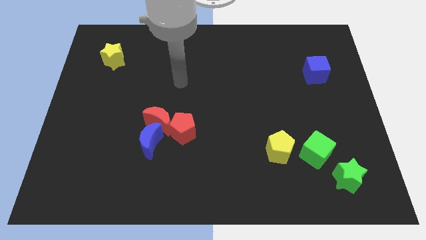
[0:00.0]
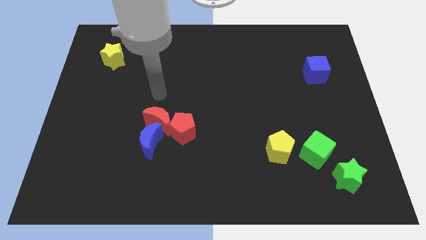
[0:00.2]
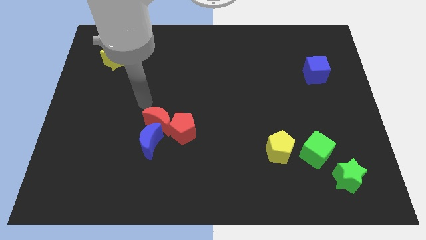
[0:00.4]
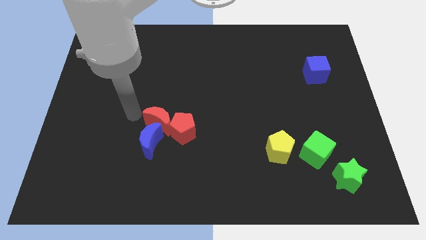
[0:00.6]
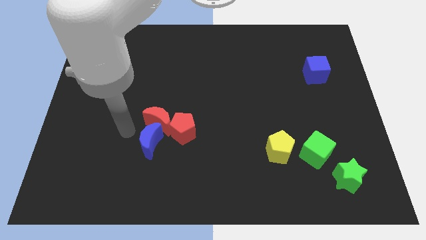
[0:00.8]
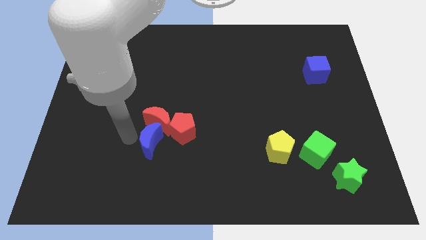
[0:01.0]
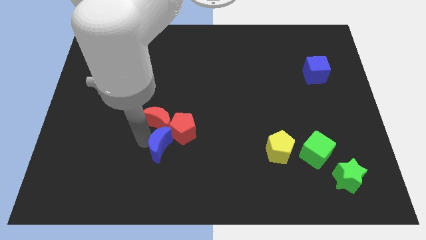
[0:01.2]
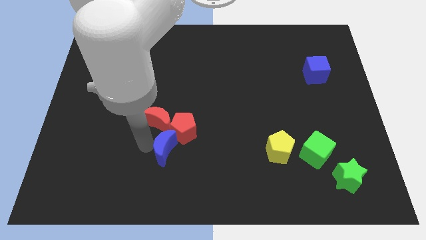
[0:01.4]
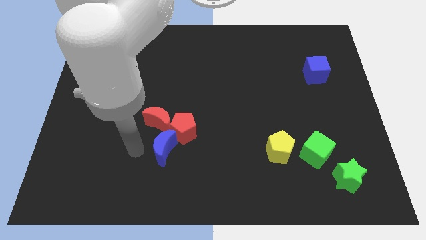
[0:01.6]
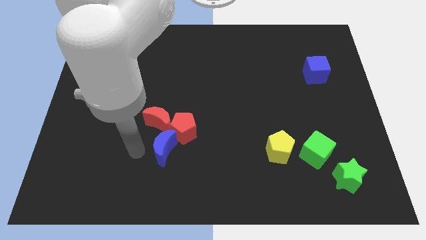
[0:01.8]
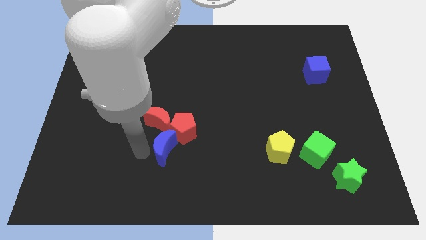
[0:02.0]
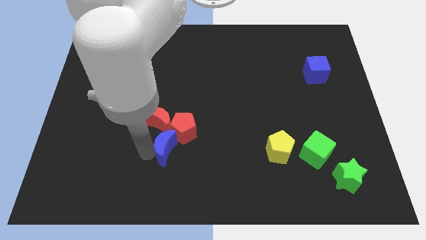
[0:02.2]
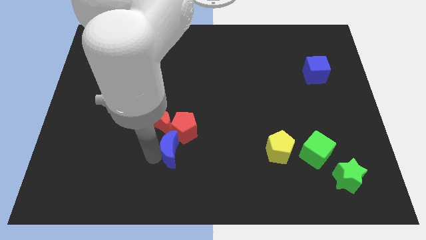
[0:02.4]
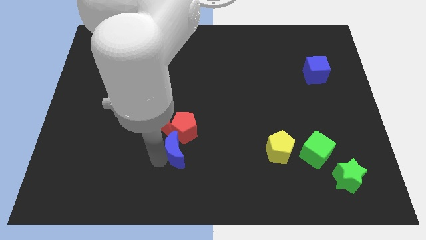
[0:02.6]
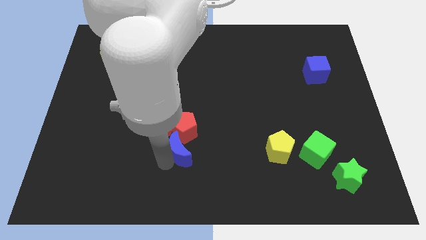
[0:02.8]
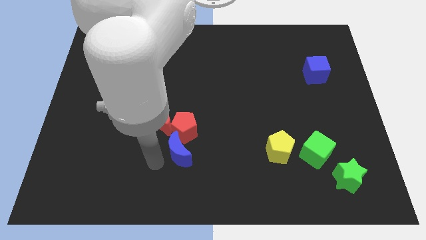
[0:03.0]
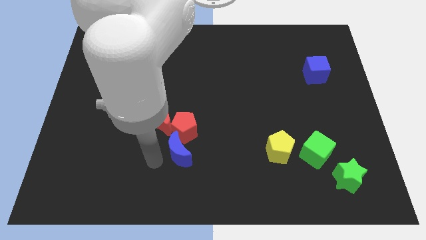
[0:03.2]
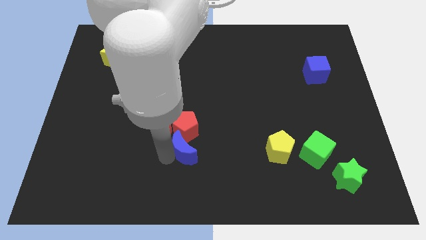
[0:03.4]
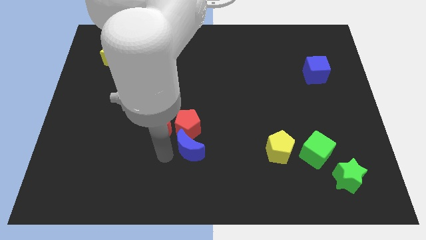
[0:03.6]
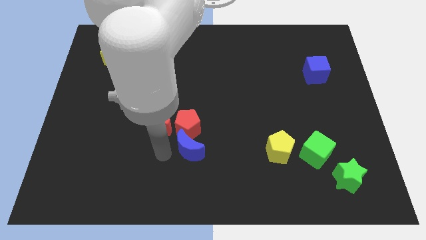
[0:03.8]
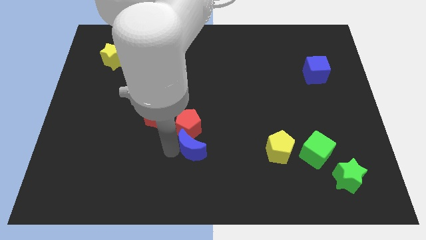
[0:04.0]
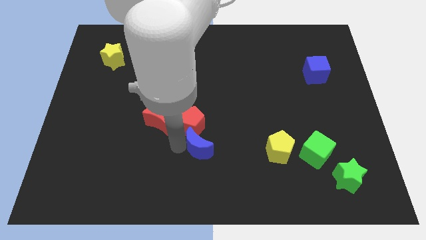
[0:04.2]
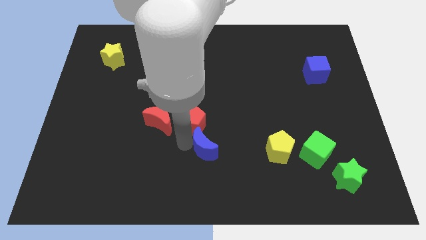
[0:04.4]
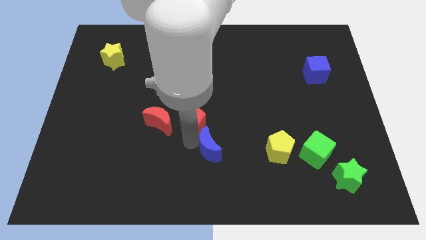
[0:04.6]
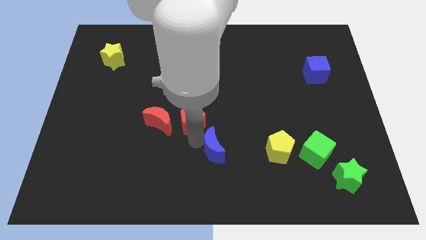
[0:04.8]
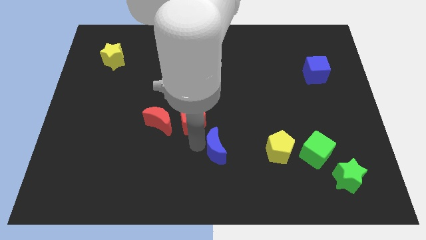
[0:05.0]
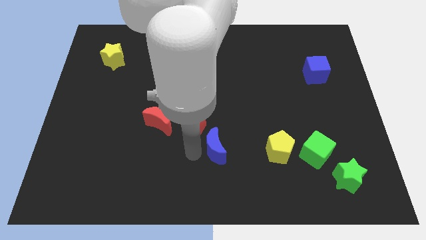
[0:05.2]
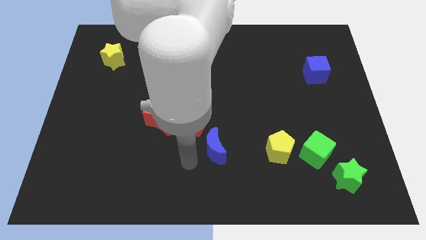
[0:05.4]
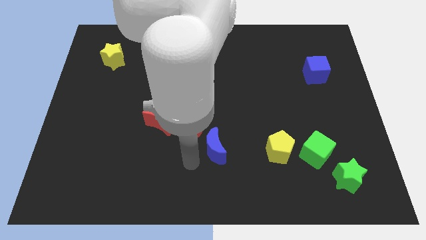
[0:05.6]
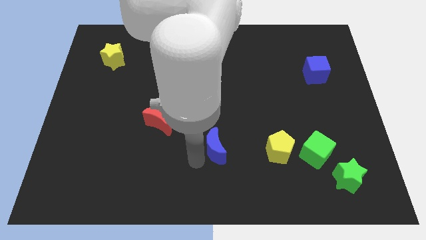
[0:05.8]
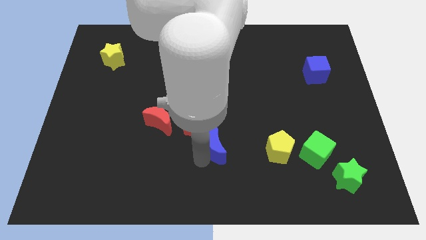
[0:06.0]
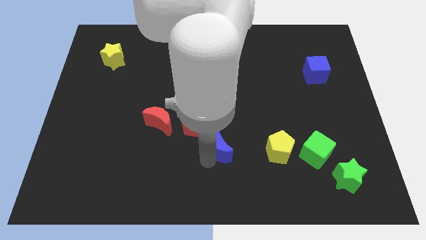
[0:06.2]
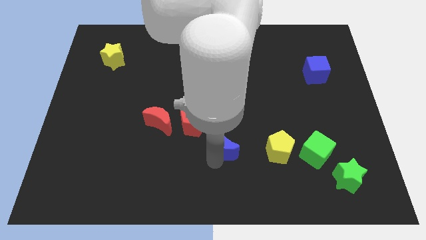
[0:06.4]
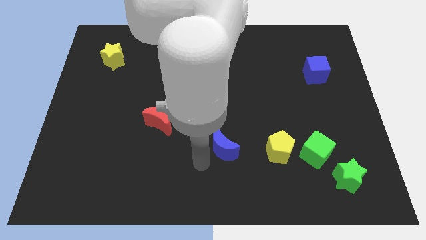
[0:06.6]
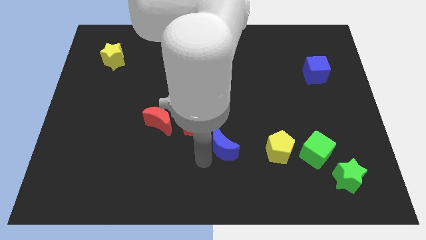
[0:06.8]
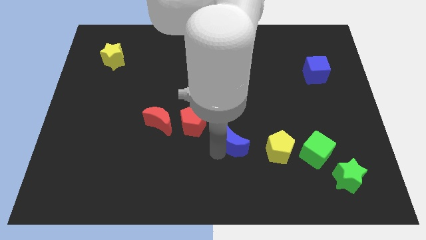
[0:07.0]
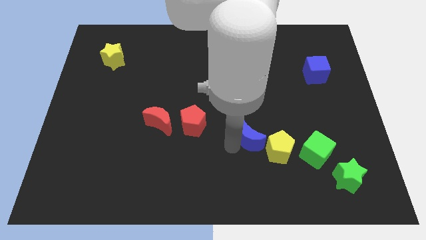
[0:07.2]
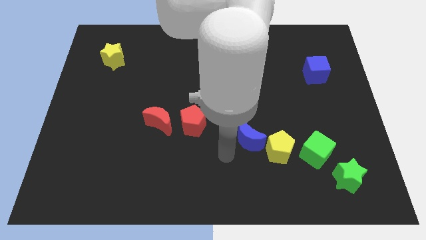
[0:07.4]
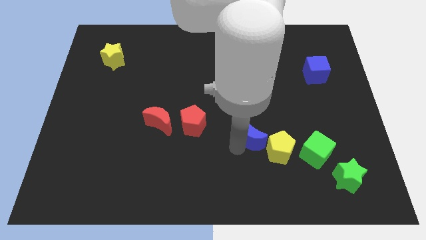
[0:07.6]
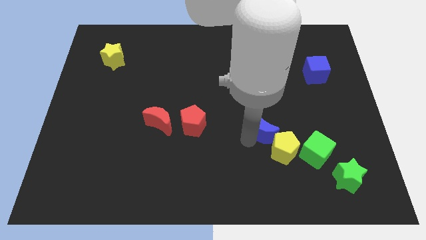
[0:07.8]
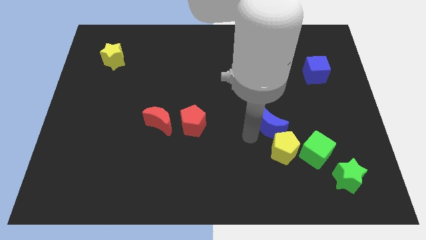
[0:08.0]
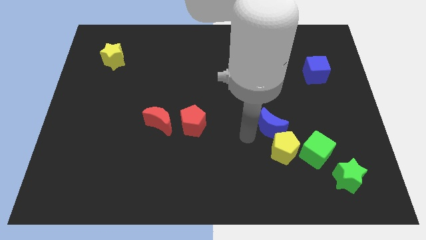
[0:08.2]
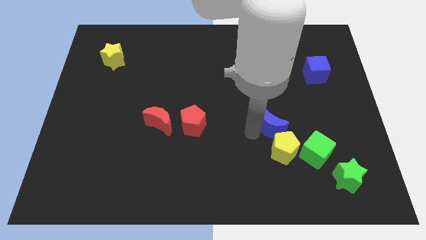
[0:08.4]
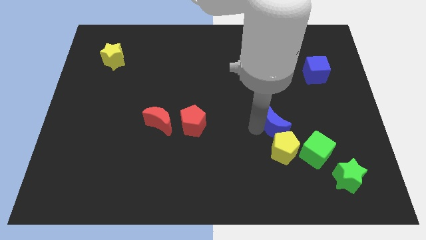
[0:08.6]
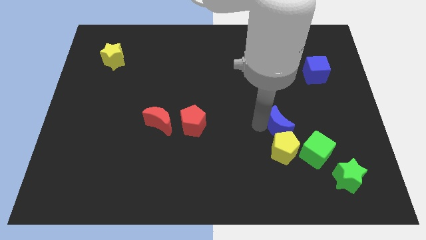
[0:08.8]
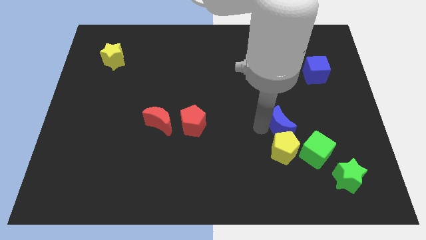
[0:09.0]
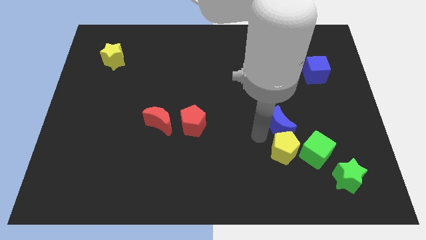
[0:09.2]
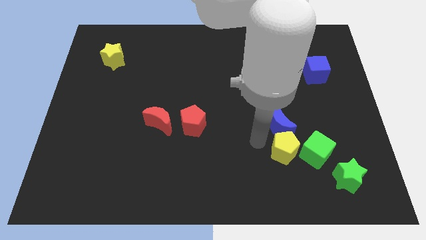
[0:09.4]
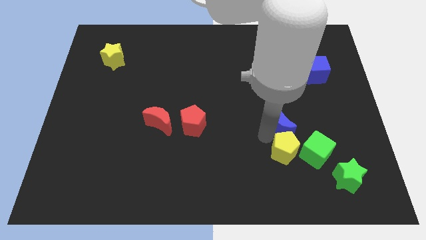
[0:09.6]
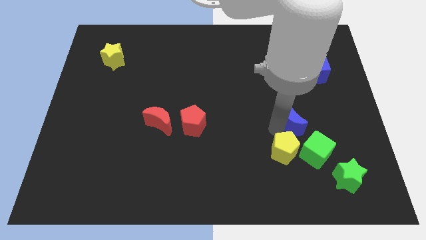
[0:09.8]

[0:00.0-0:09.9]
slide the blue moon to the top side of the green cube

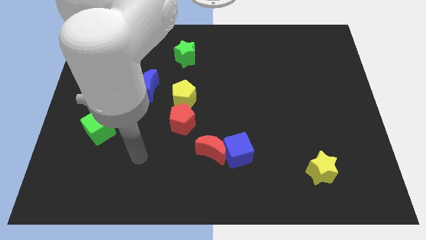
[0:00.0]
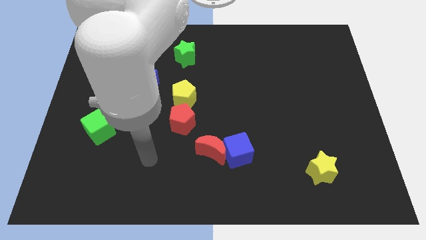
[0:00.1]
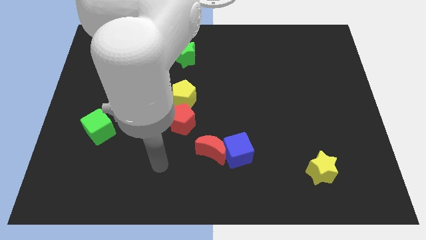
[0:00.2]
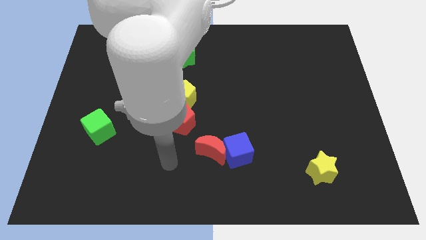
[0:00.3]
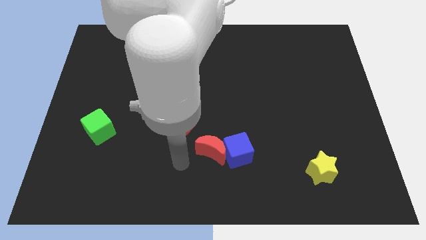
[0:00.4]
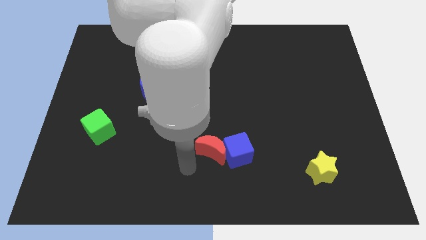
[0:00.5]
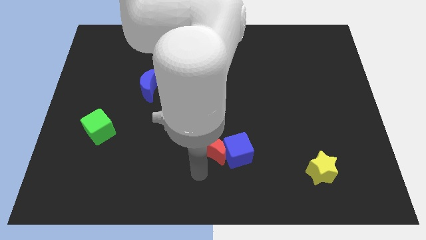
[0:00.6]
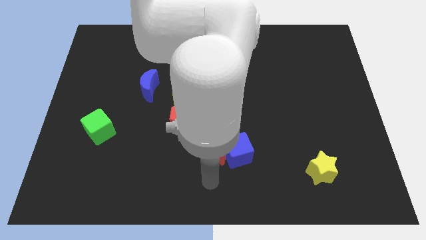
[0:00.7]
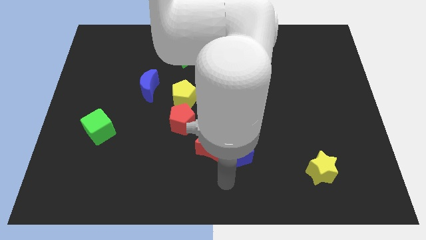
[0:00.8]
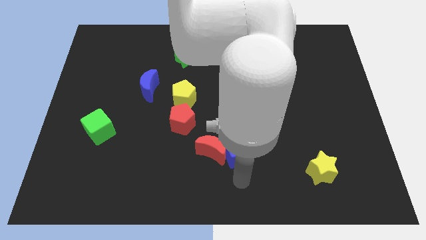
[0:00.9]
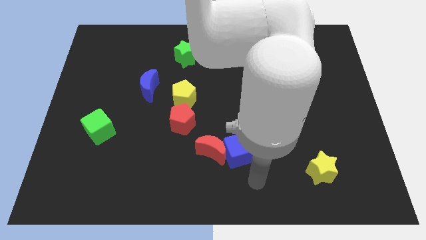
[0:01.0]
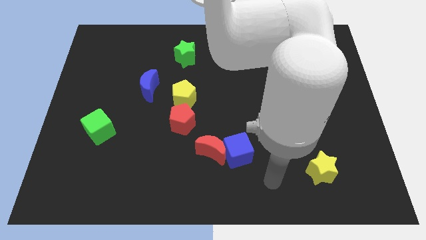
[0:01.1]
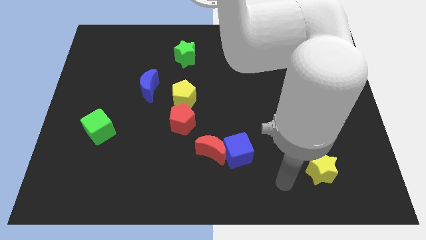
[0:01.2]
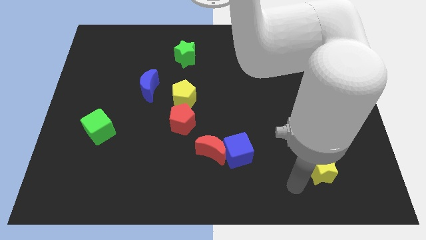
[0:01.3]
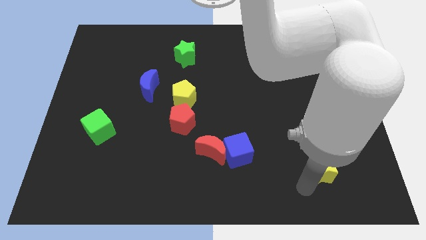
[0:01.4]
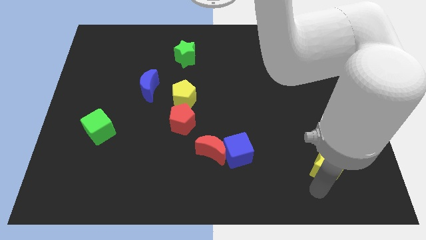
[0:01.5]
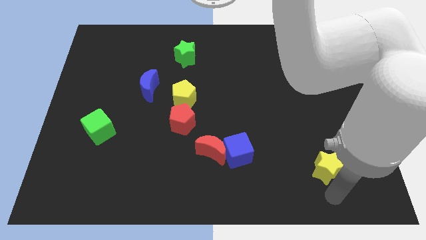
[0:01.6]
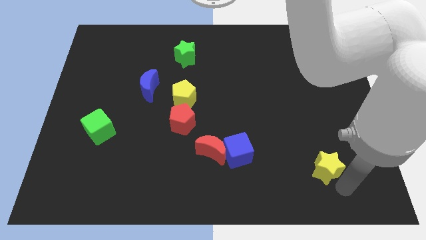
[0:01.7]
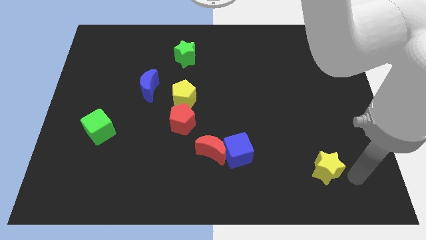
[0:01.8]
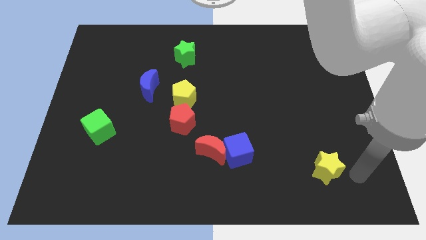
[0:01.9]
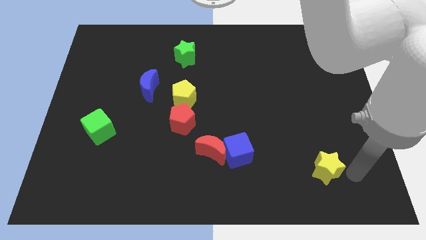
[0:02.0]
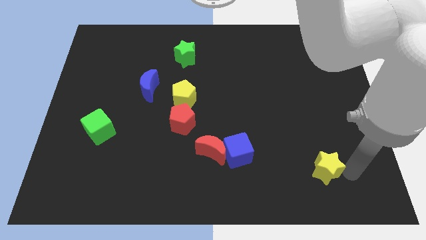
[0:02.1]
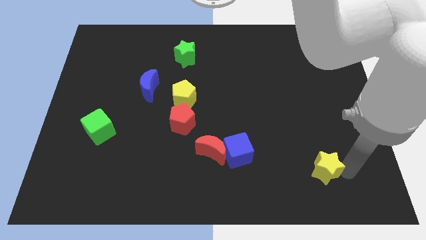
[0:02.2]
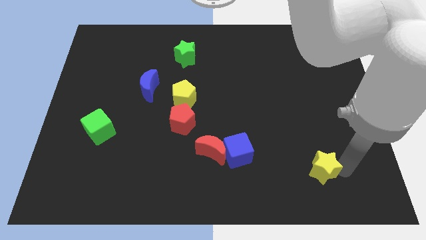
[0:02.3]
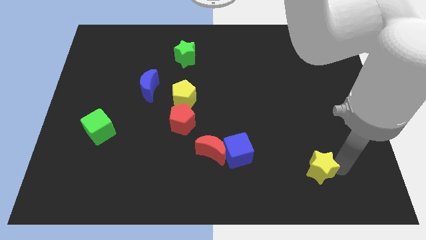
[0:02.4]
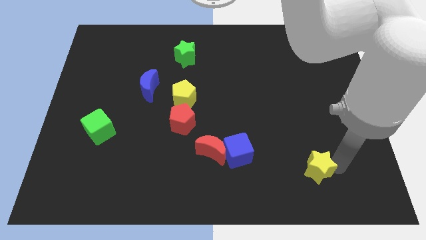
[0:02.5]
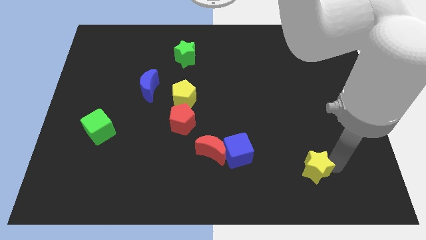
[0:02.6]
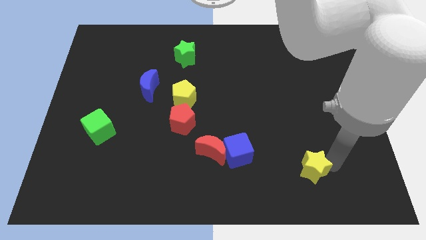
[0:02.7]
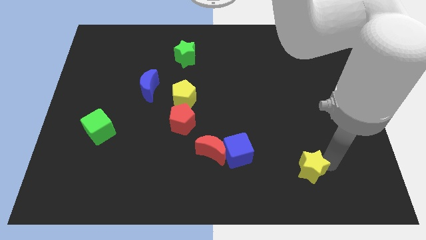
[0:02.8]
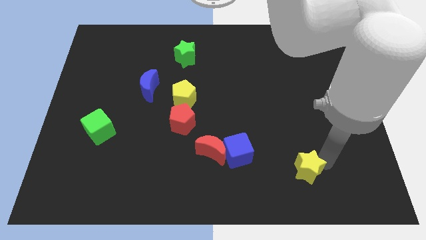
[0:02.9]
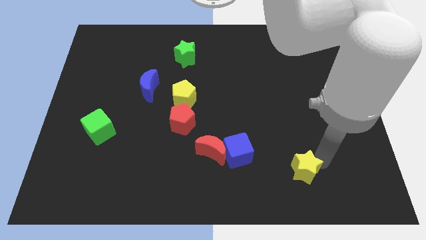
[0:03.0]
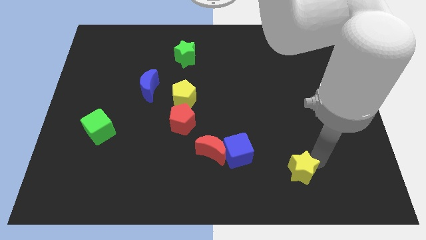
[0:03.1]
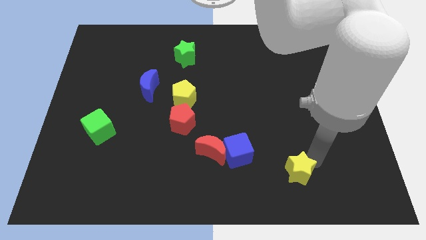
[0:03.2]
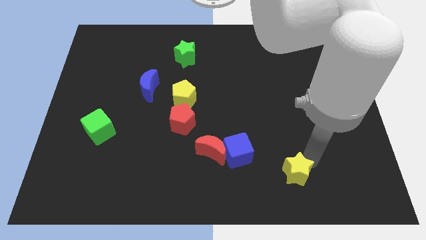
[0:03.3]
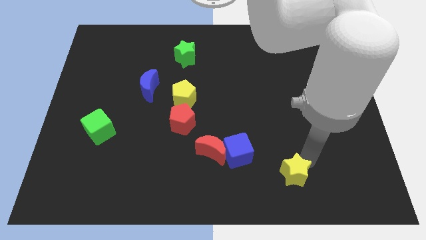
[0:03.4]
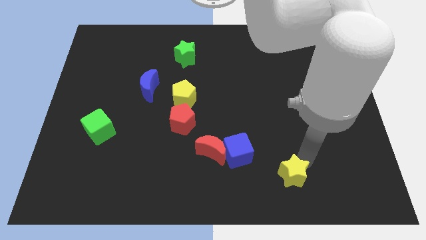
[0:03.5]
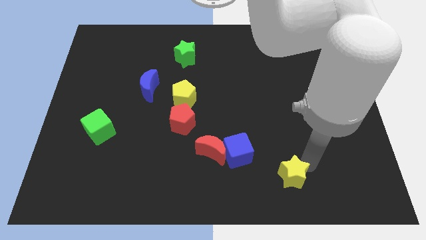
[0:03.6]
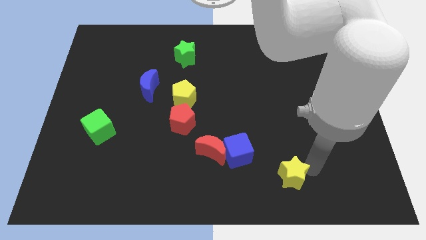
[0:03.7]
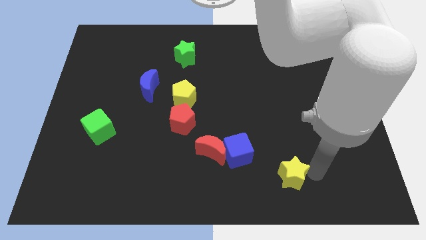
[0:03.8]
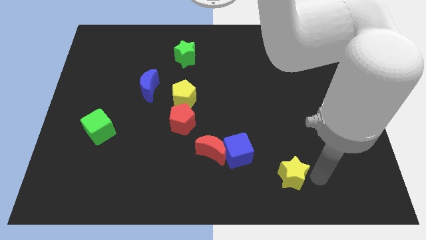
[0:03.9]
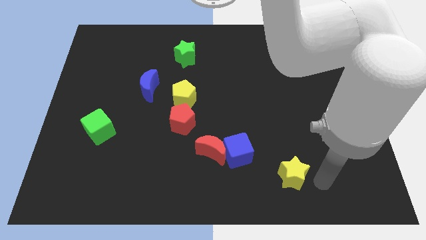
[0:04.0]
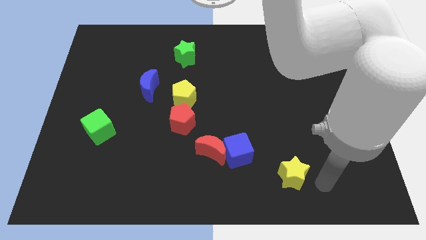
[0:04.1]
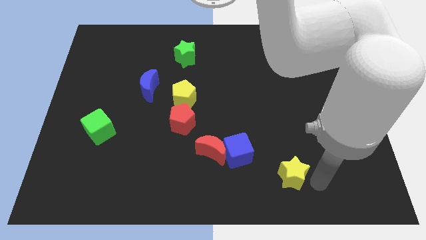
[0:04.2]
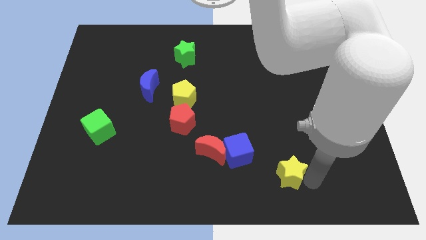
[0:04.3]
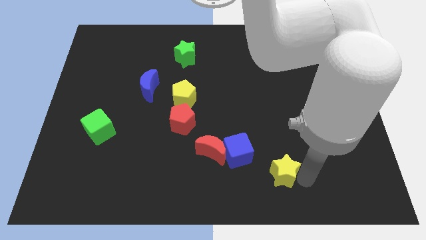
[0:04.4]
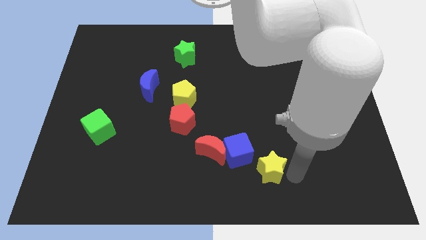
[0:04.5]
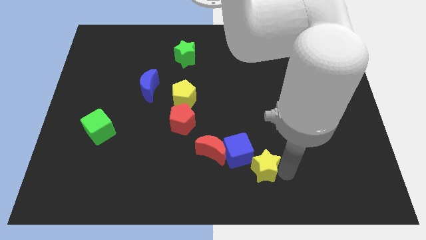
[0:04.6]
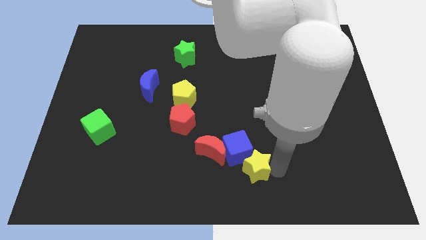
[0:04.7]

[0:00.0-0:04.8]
put the yellow star diagonally down and to the right of the red moon
